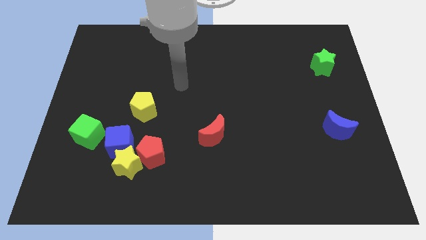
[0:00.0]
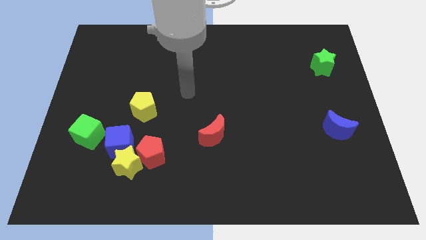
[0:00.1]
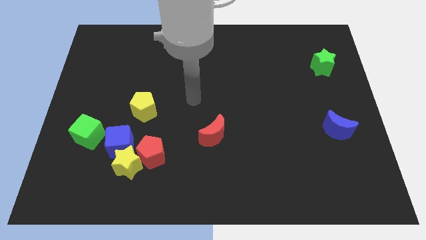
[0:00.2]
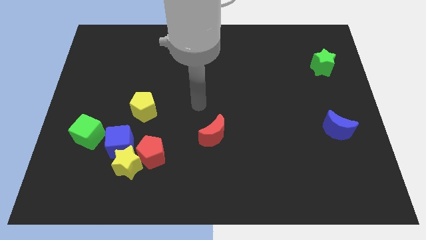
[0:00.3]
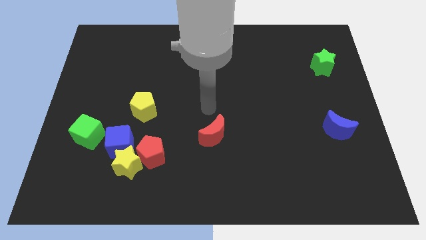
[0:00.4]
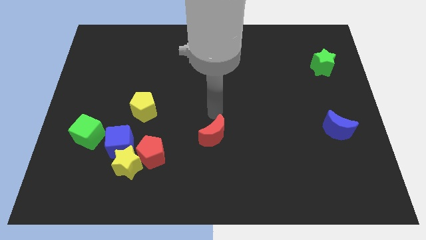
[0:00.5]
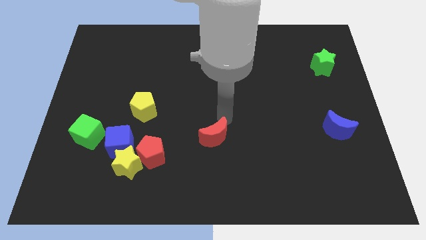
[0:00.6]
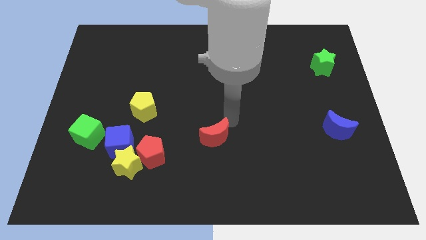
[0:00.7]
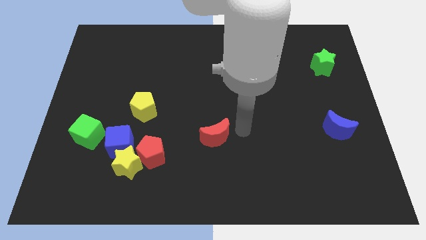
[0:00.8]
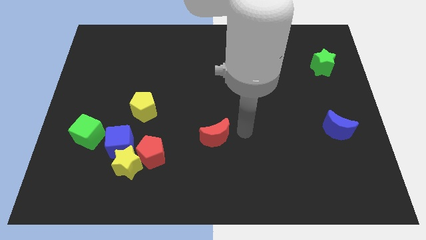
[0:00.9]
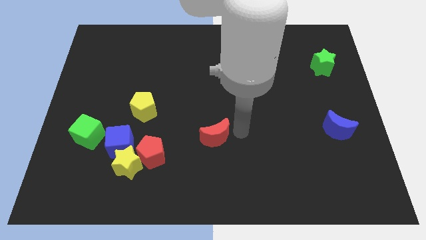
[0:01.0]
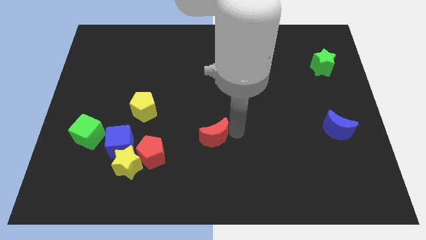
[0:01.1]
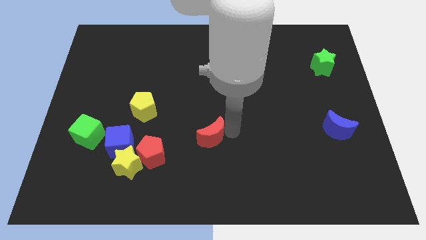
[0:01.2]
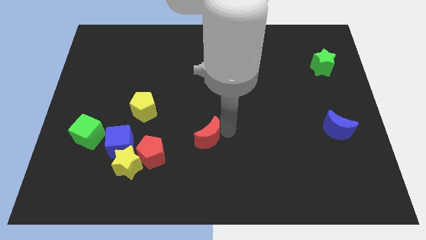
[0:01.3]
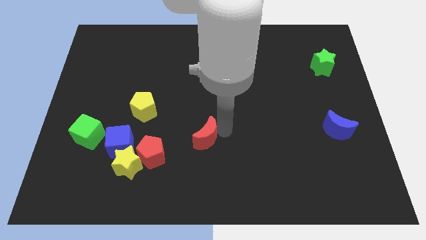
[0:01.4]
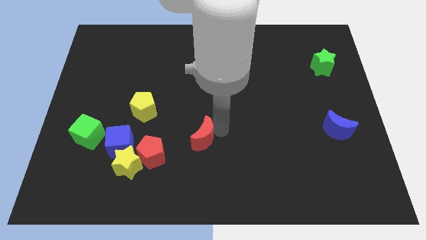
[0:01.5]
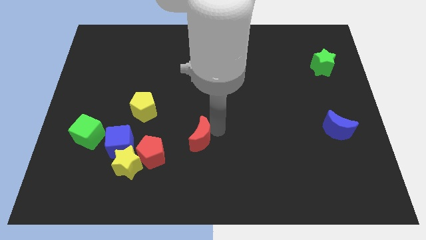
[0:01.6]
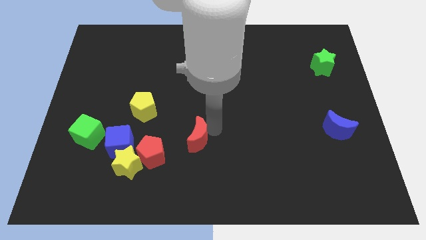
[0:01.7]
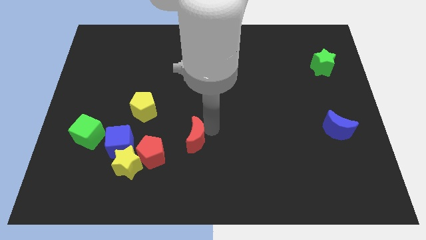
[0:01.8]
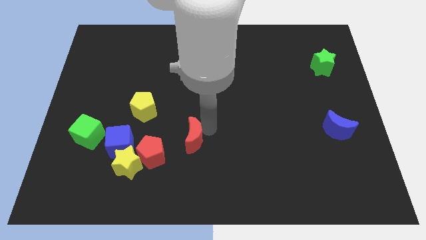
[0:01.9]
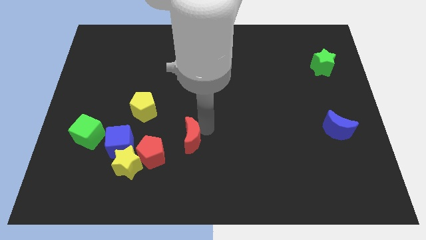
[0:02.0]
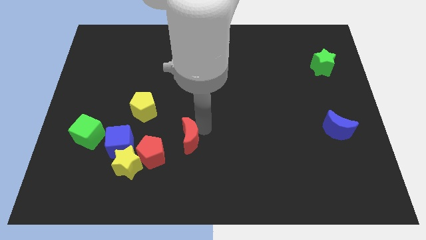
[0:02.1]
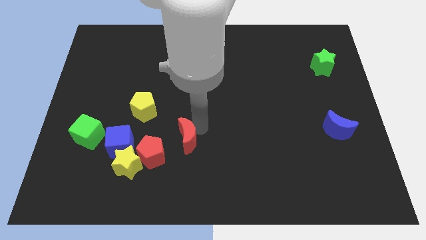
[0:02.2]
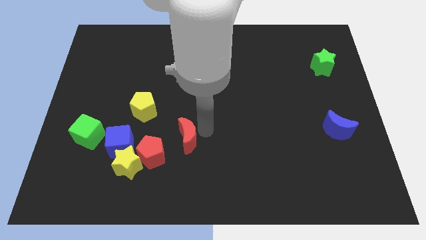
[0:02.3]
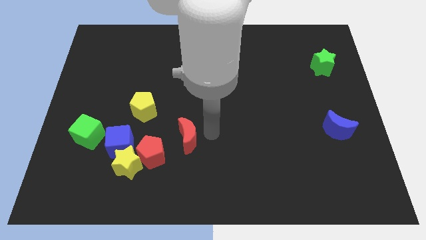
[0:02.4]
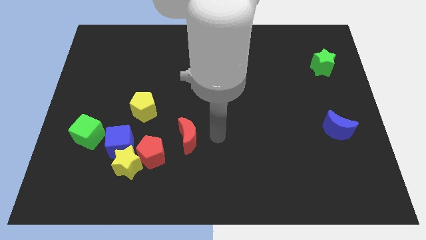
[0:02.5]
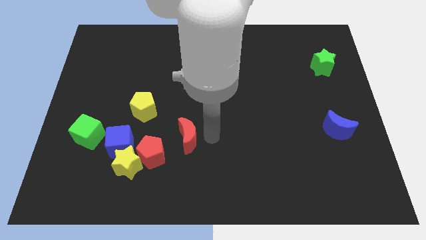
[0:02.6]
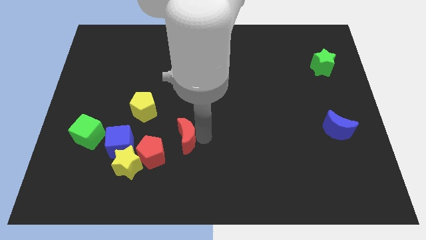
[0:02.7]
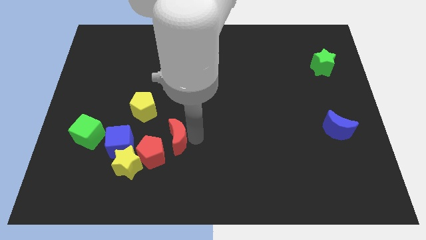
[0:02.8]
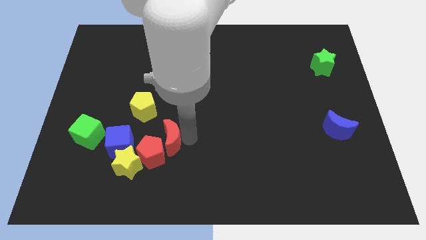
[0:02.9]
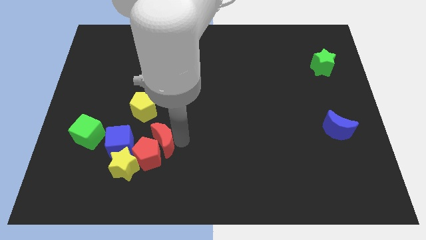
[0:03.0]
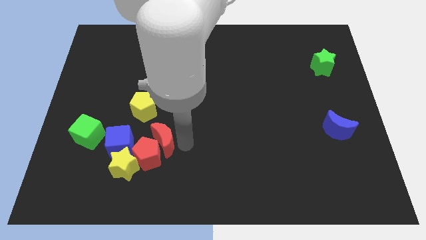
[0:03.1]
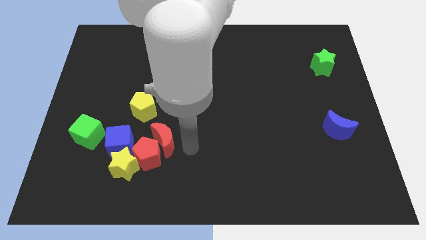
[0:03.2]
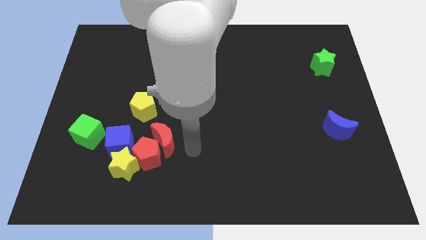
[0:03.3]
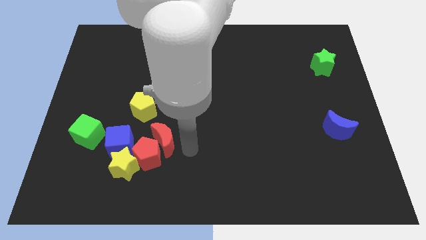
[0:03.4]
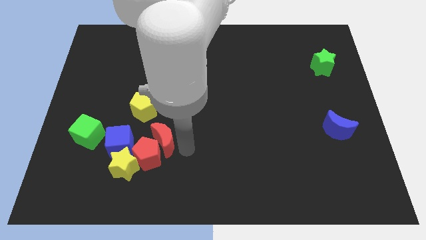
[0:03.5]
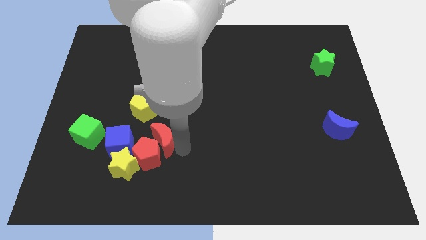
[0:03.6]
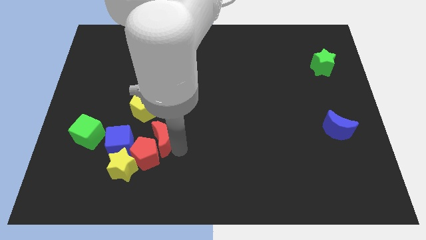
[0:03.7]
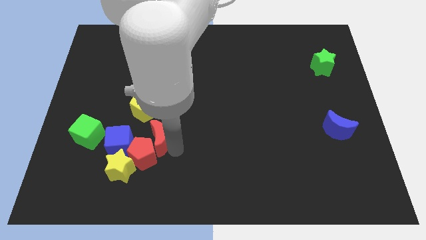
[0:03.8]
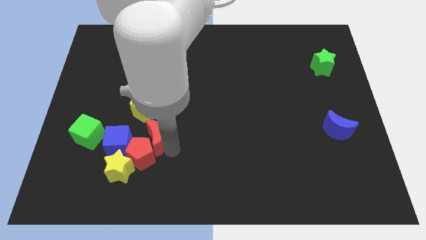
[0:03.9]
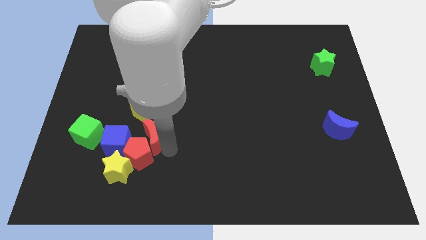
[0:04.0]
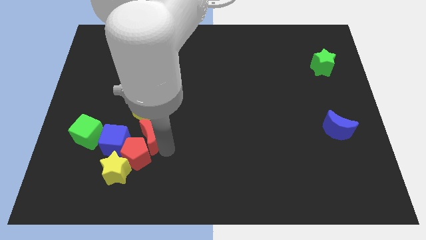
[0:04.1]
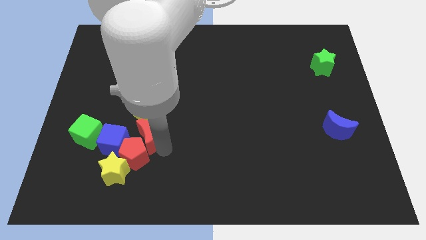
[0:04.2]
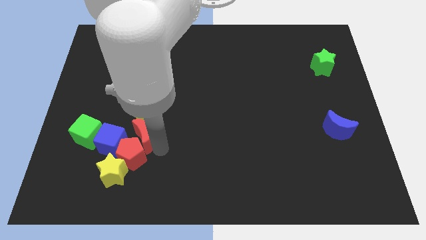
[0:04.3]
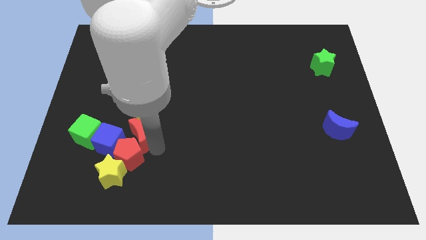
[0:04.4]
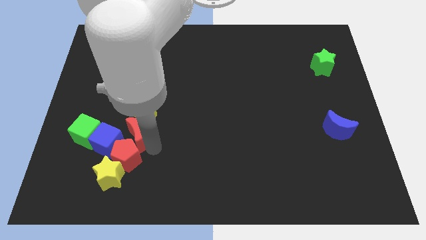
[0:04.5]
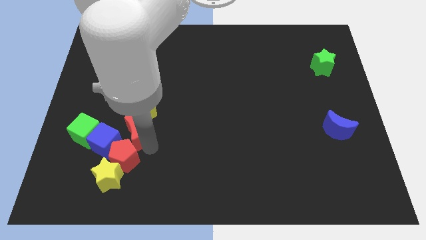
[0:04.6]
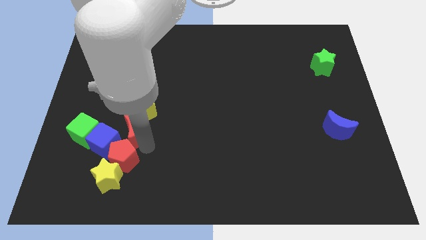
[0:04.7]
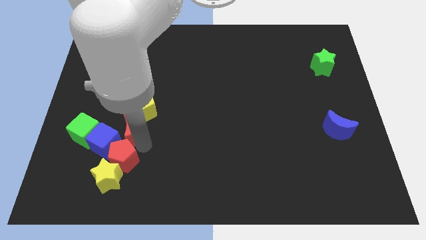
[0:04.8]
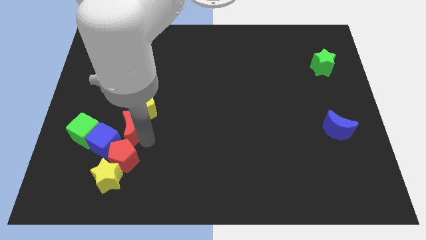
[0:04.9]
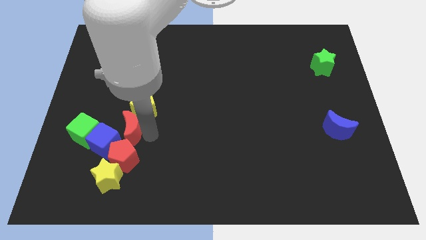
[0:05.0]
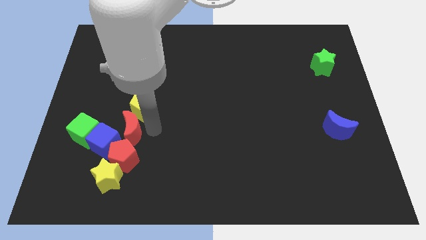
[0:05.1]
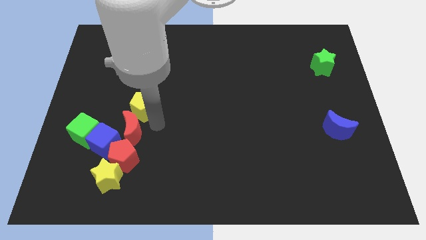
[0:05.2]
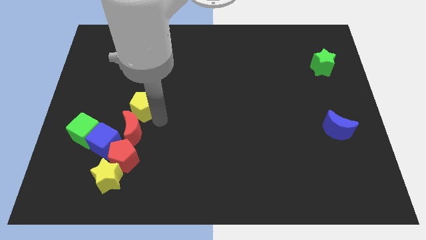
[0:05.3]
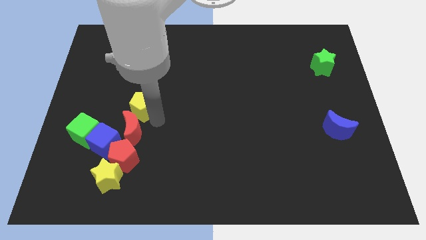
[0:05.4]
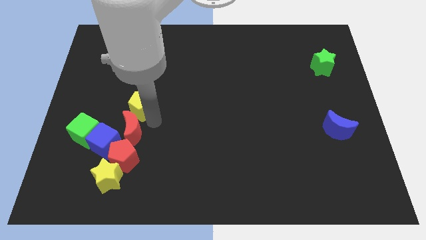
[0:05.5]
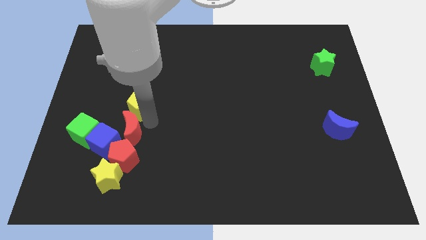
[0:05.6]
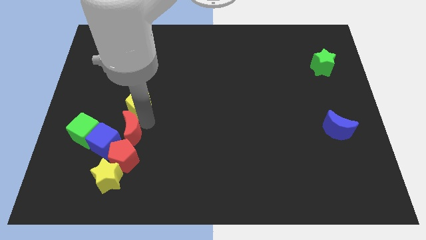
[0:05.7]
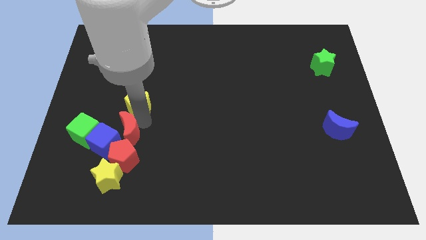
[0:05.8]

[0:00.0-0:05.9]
push the red moon towards the blue cube
